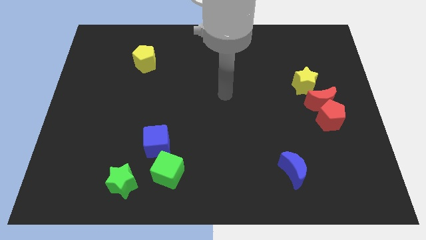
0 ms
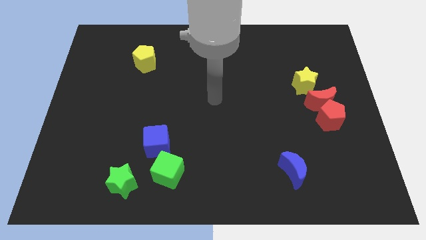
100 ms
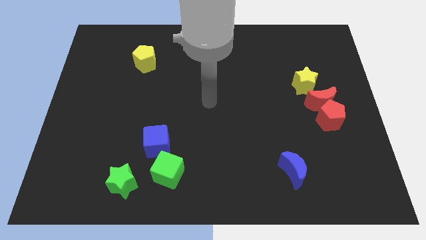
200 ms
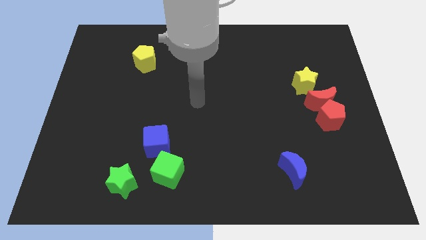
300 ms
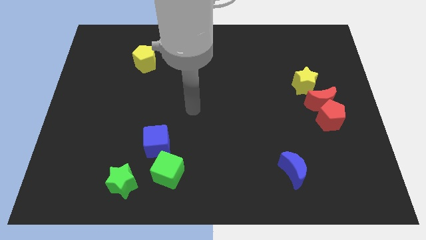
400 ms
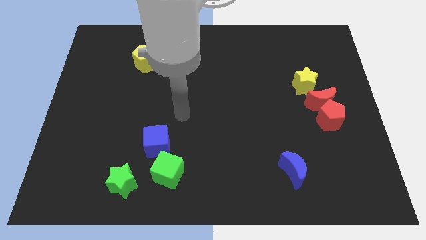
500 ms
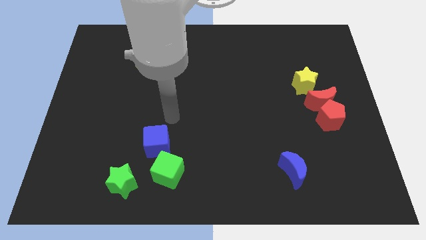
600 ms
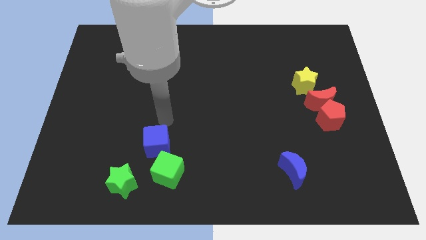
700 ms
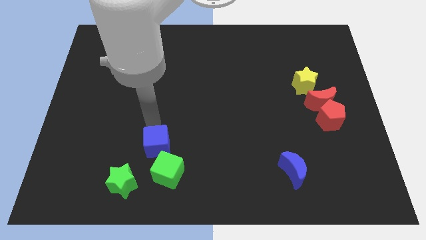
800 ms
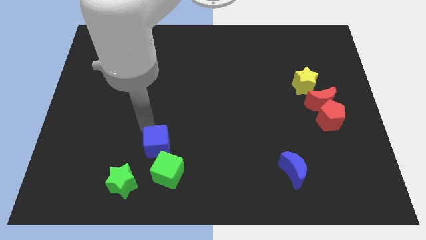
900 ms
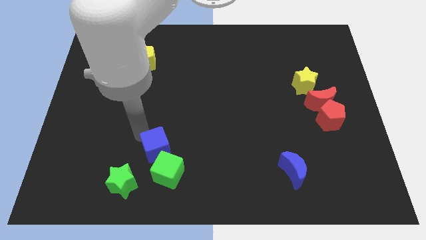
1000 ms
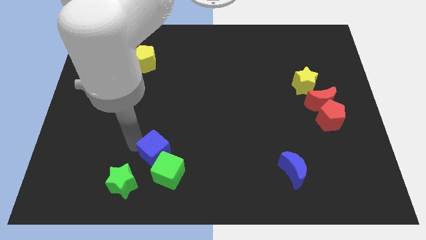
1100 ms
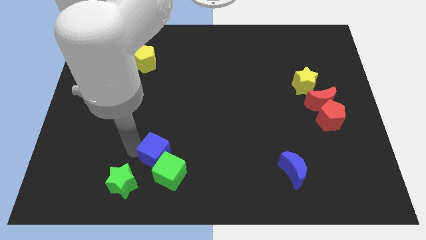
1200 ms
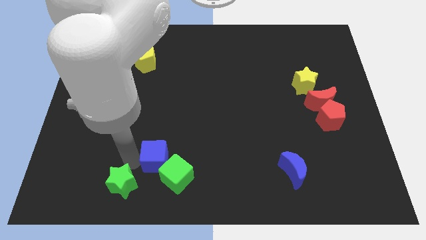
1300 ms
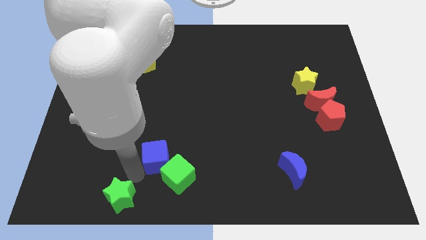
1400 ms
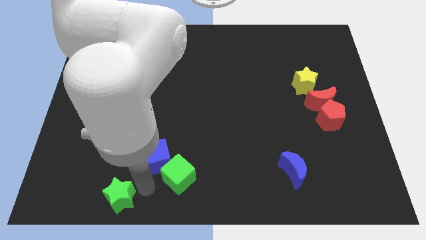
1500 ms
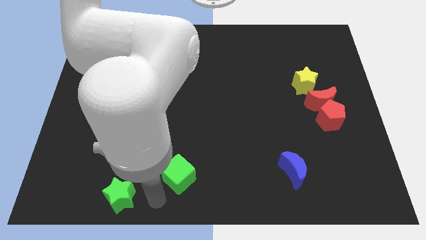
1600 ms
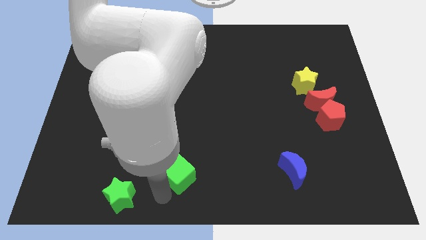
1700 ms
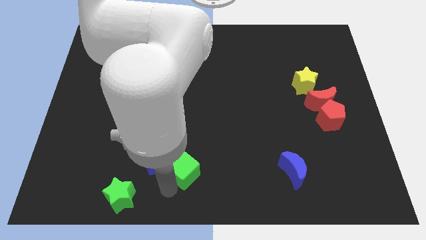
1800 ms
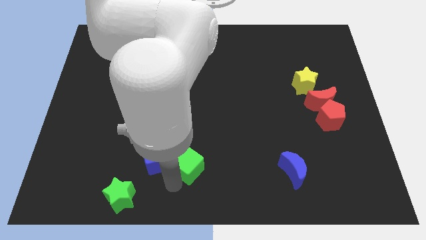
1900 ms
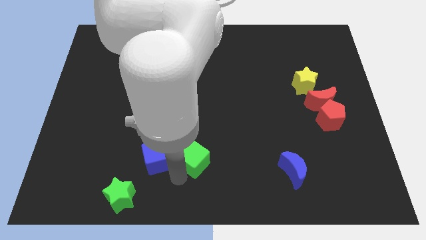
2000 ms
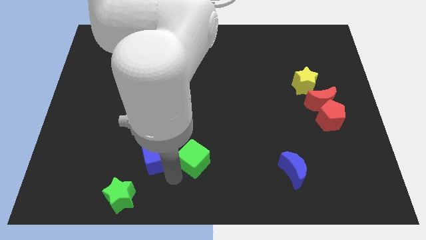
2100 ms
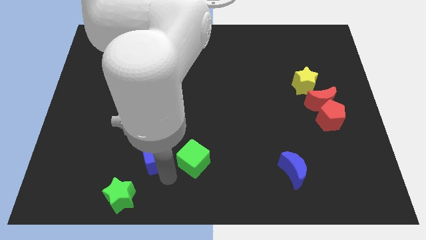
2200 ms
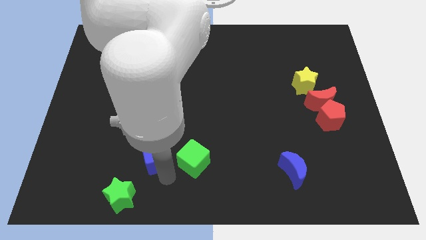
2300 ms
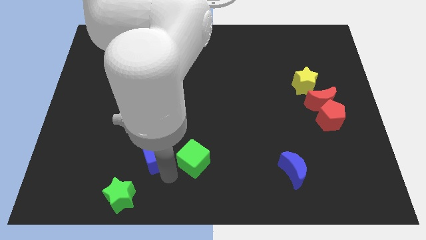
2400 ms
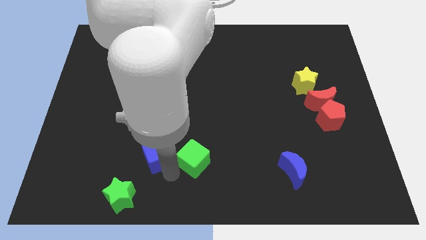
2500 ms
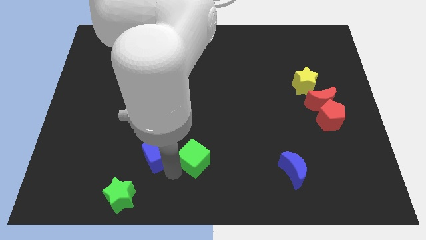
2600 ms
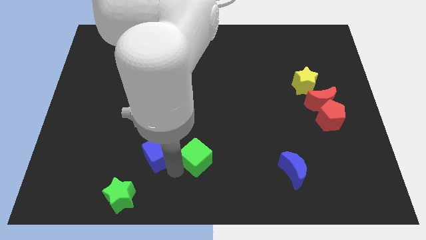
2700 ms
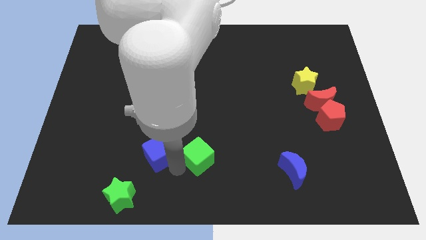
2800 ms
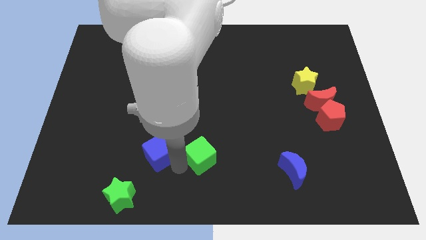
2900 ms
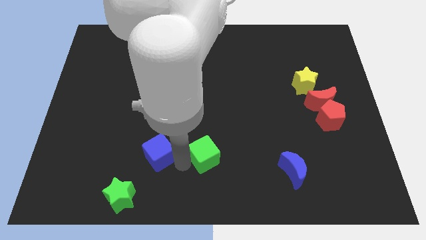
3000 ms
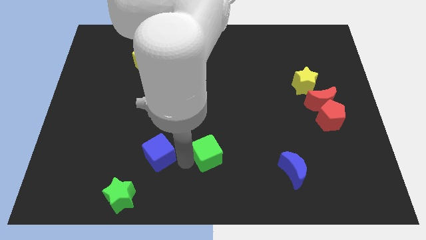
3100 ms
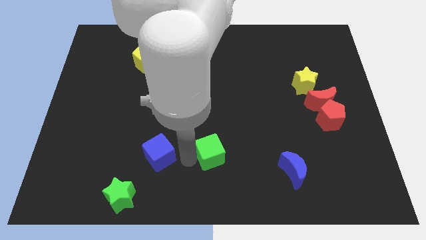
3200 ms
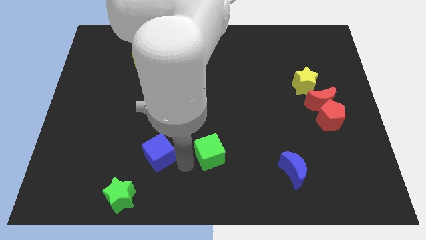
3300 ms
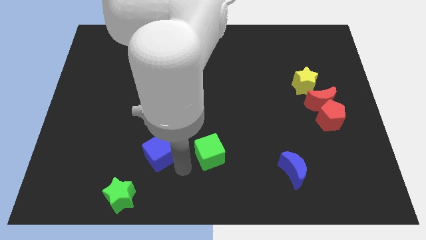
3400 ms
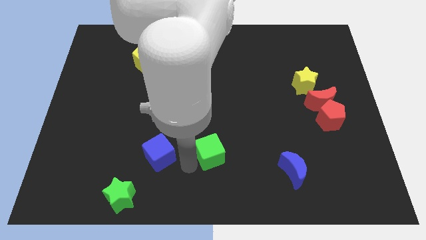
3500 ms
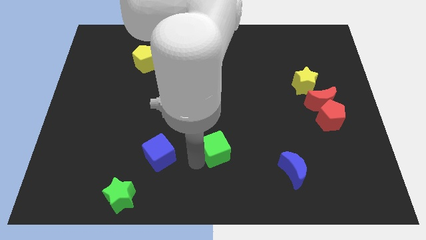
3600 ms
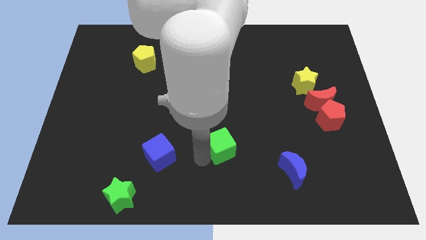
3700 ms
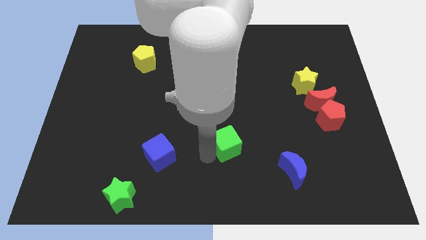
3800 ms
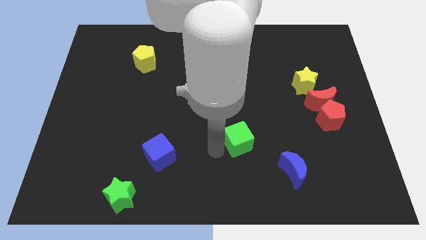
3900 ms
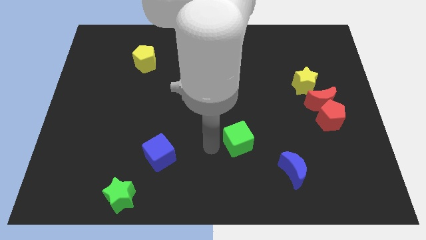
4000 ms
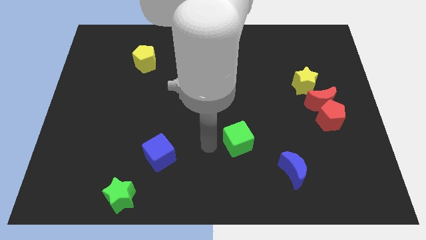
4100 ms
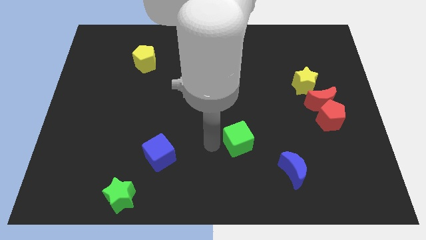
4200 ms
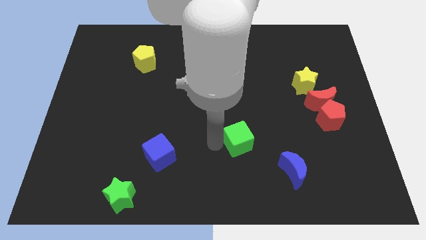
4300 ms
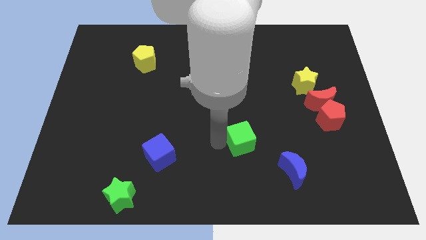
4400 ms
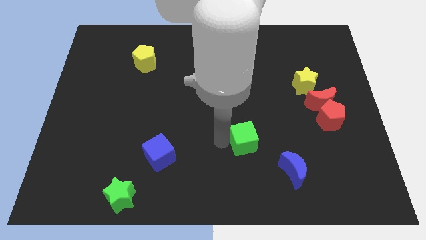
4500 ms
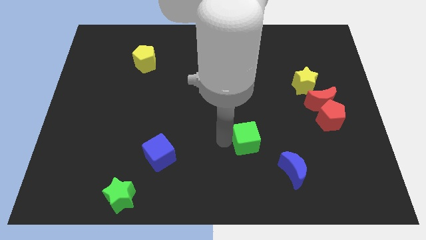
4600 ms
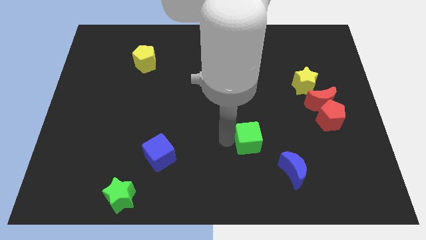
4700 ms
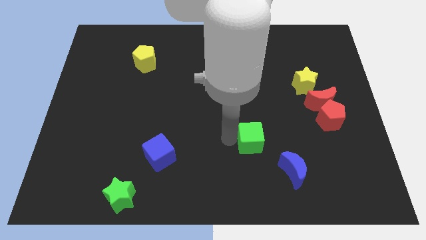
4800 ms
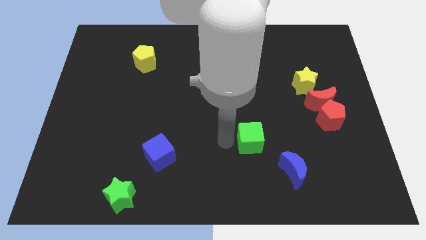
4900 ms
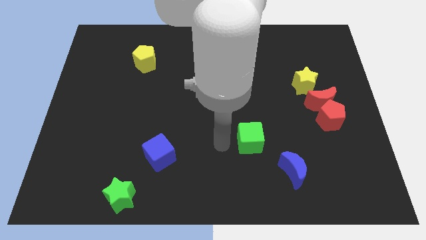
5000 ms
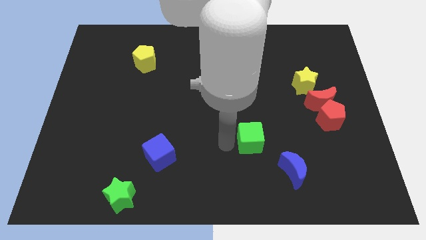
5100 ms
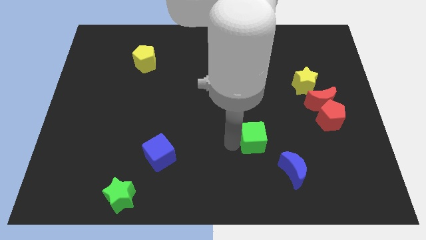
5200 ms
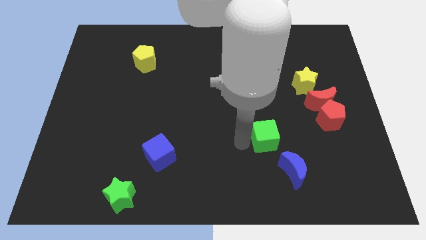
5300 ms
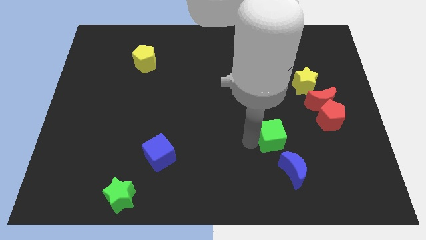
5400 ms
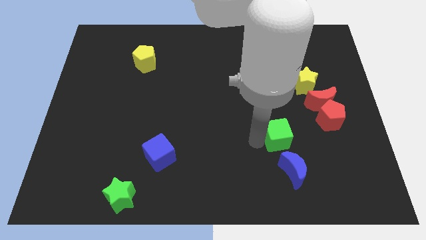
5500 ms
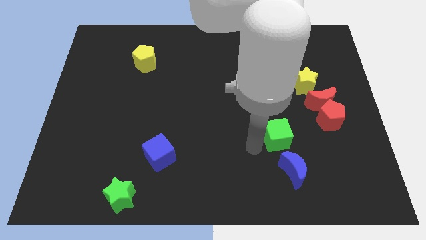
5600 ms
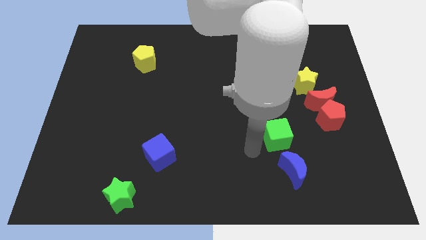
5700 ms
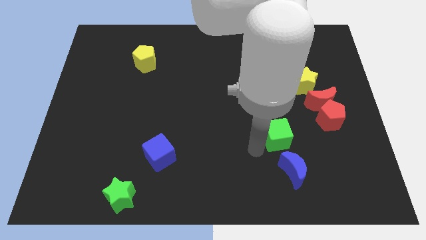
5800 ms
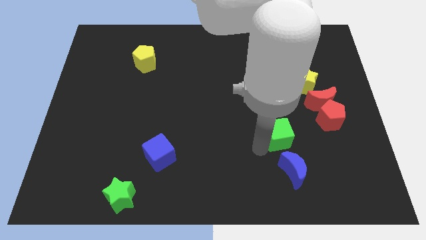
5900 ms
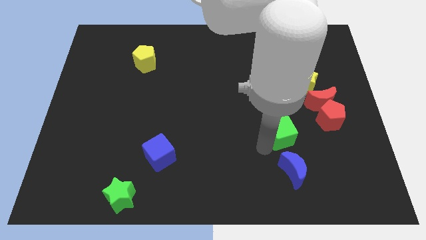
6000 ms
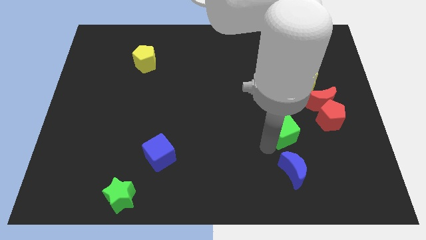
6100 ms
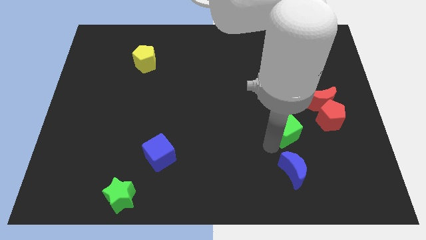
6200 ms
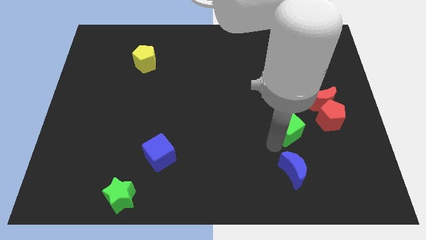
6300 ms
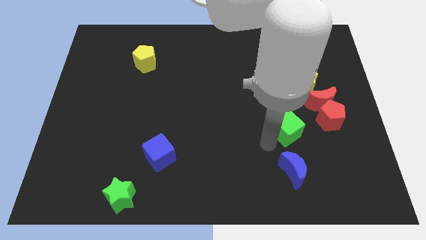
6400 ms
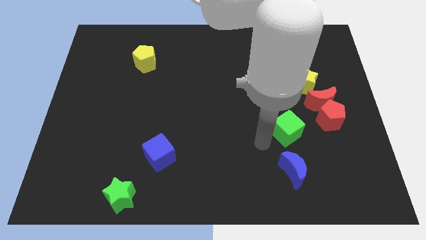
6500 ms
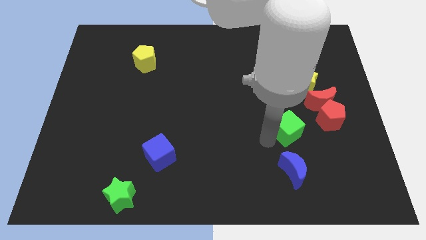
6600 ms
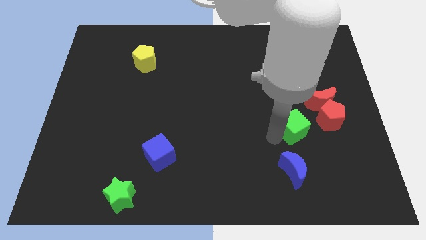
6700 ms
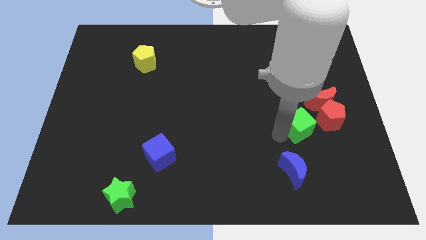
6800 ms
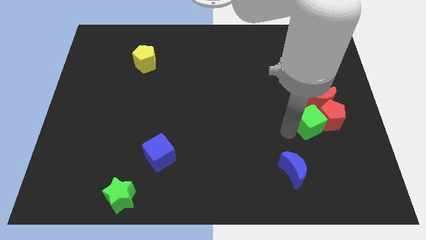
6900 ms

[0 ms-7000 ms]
move the green cube towards the red pentagon

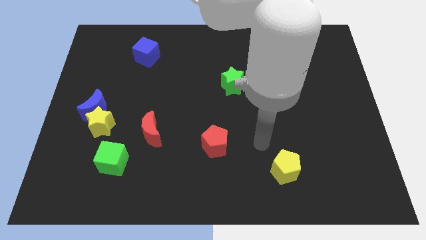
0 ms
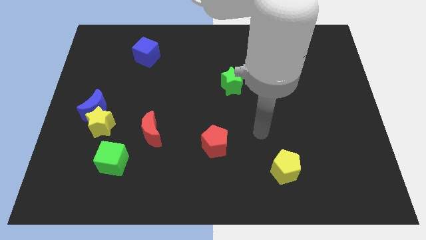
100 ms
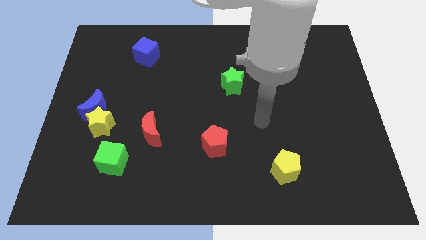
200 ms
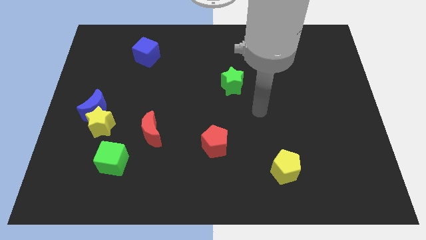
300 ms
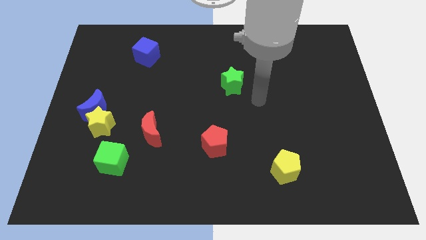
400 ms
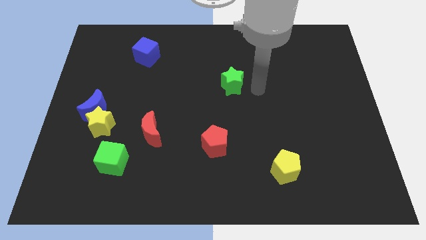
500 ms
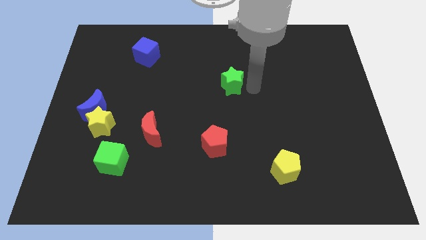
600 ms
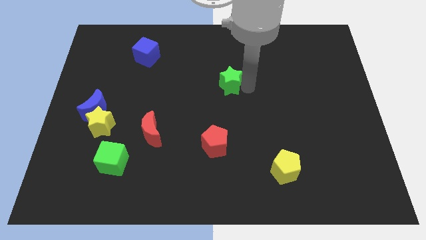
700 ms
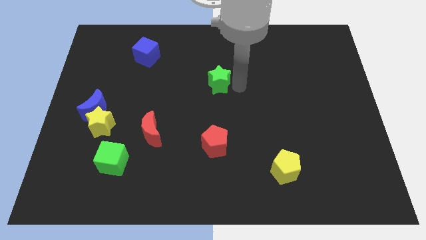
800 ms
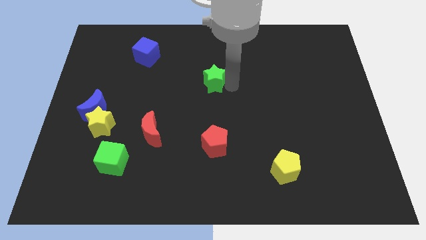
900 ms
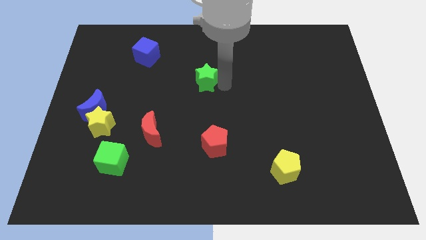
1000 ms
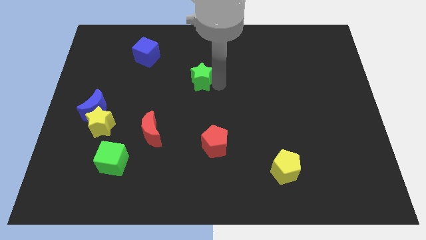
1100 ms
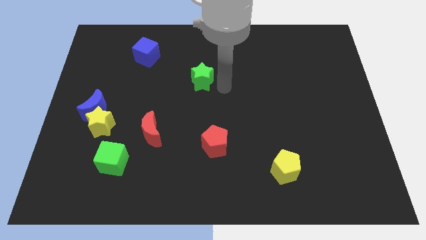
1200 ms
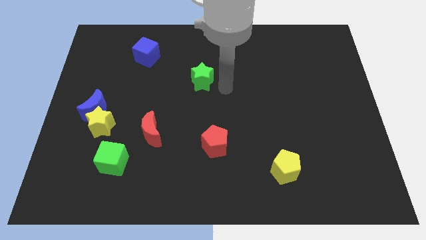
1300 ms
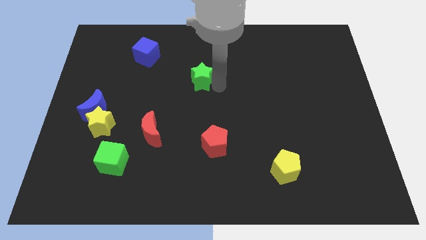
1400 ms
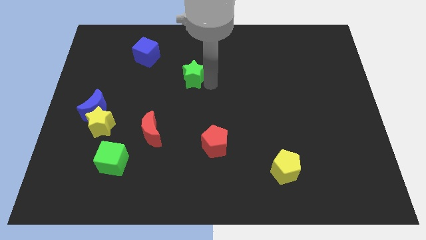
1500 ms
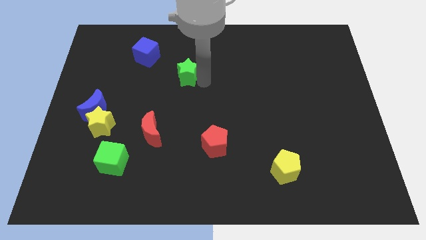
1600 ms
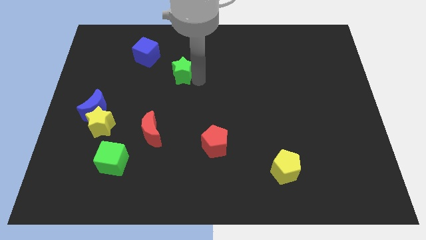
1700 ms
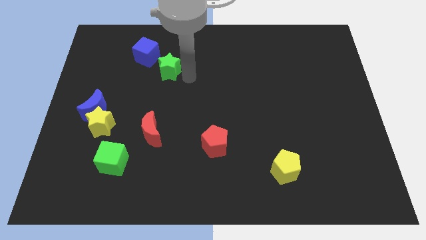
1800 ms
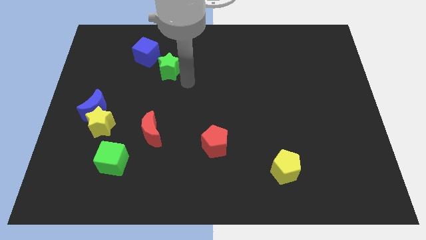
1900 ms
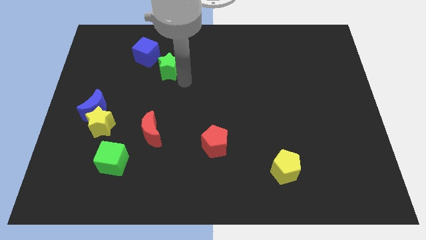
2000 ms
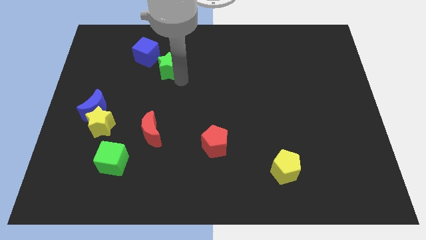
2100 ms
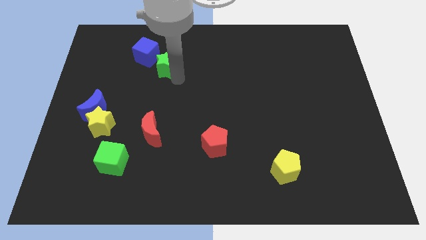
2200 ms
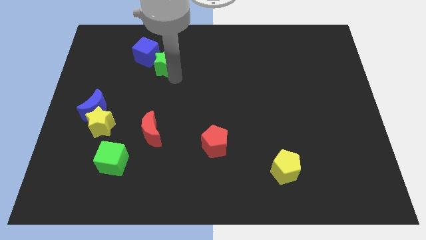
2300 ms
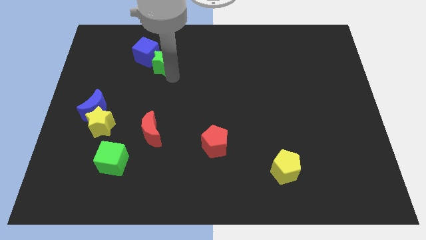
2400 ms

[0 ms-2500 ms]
slide the green star to the blue cube
